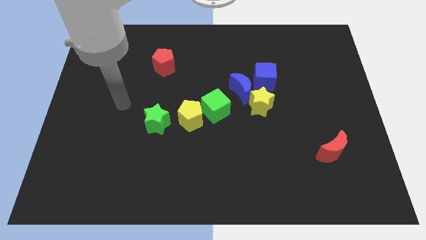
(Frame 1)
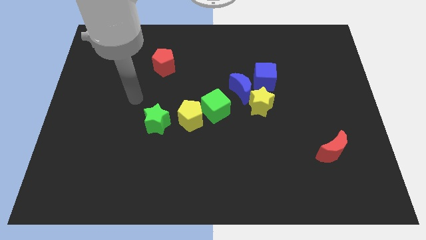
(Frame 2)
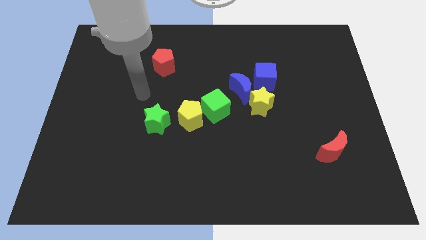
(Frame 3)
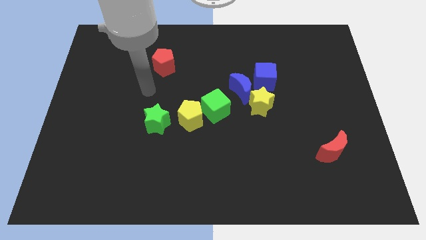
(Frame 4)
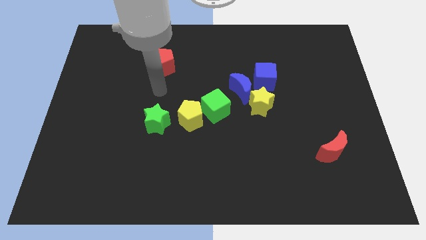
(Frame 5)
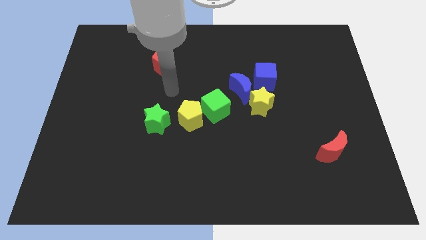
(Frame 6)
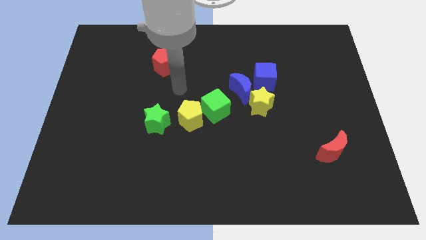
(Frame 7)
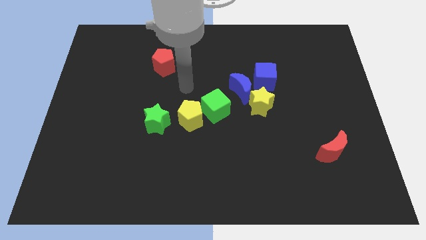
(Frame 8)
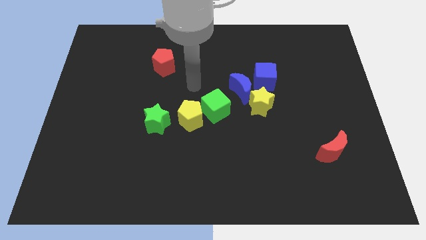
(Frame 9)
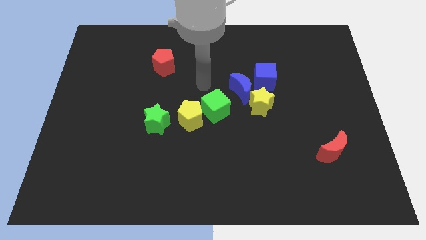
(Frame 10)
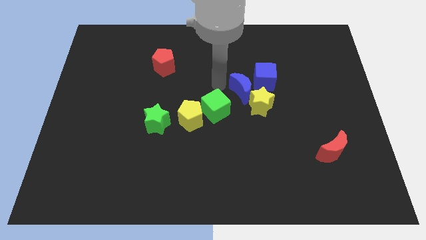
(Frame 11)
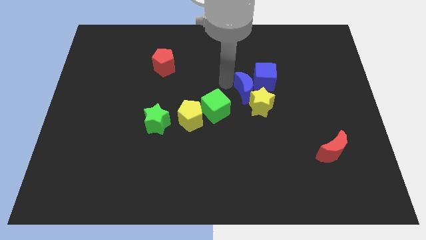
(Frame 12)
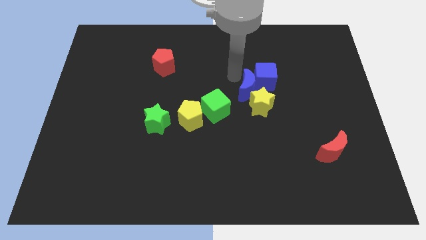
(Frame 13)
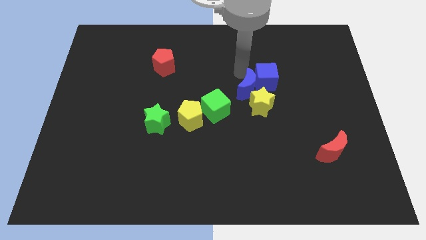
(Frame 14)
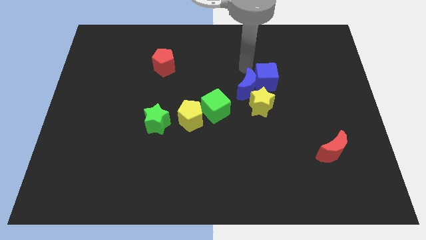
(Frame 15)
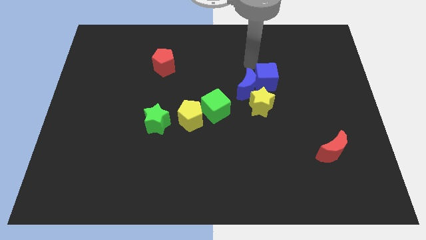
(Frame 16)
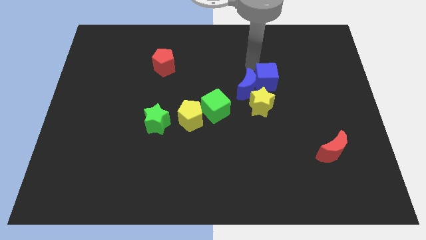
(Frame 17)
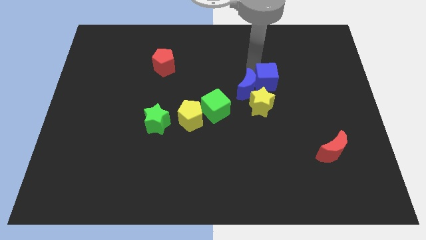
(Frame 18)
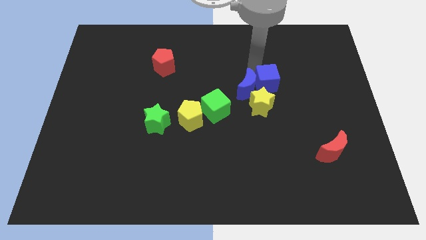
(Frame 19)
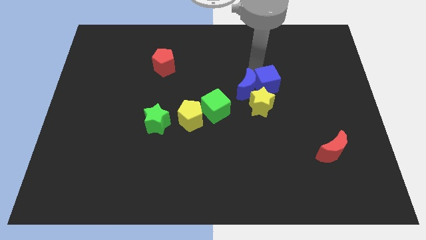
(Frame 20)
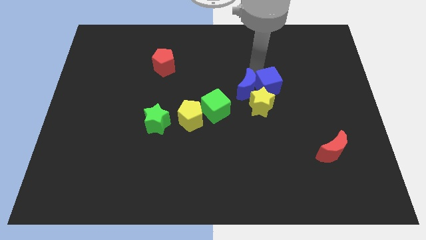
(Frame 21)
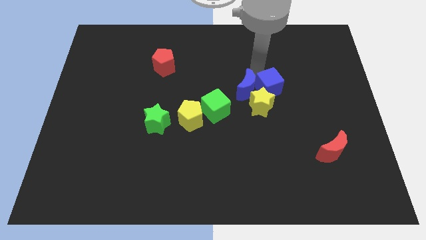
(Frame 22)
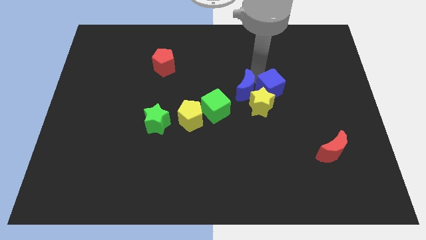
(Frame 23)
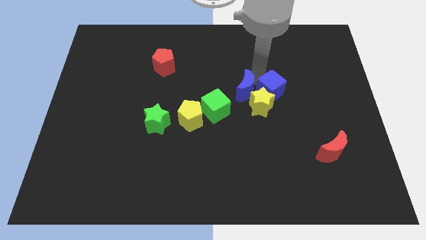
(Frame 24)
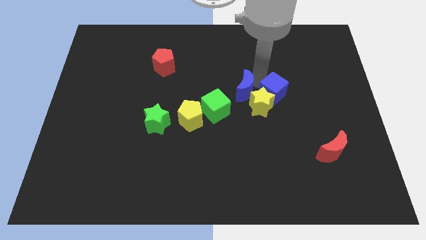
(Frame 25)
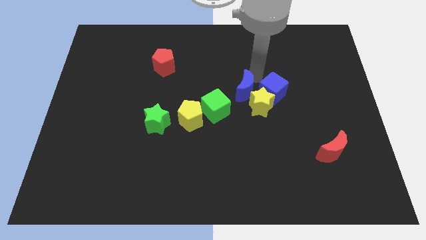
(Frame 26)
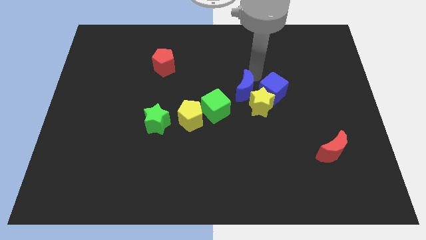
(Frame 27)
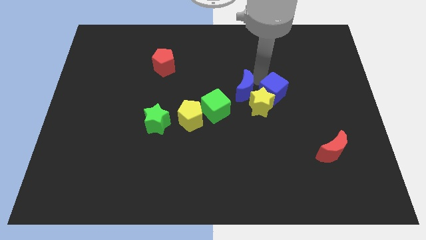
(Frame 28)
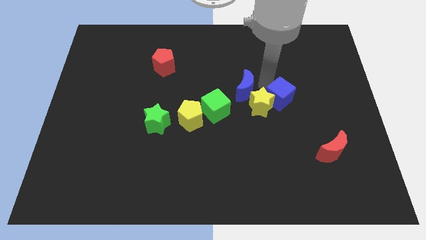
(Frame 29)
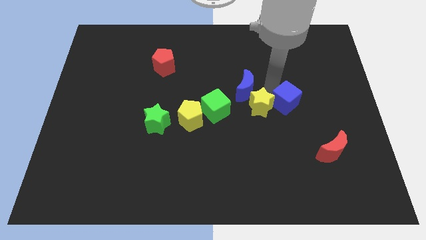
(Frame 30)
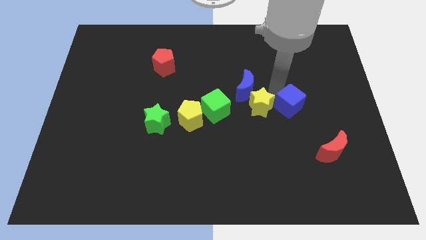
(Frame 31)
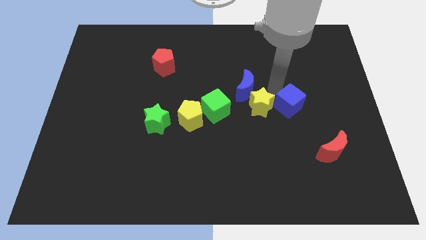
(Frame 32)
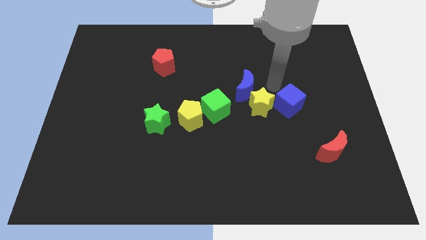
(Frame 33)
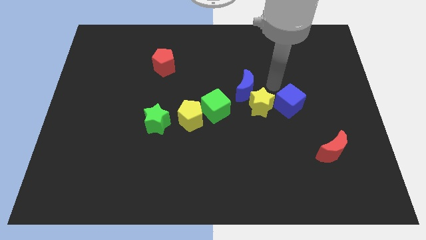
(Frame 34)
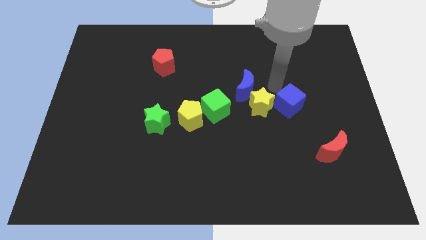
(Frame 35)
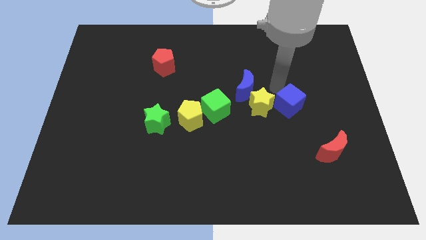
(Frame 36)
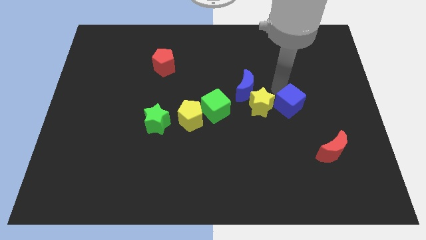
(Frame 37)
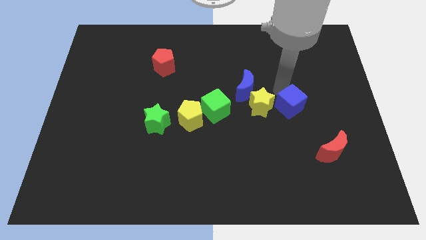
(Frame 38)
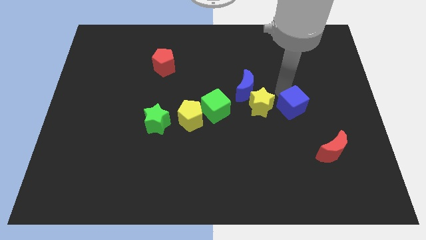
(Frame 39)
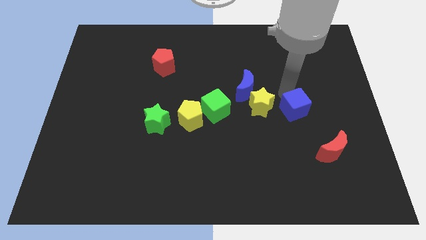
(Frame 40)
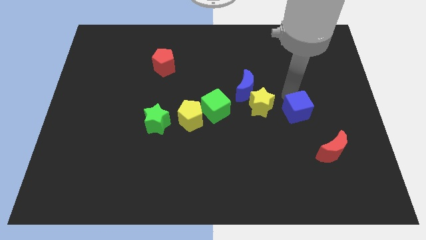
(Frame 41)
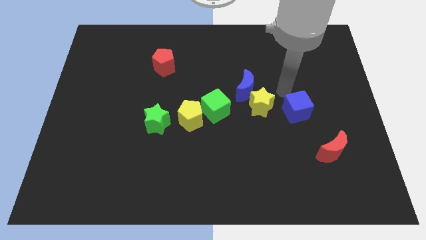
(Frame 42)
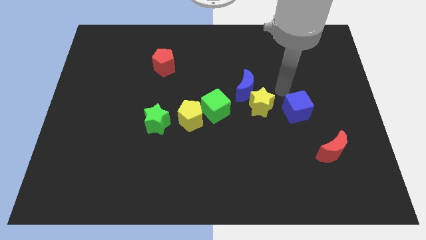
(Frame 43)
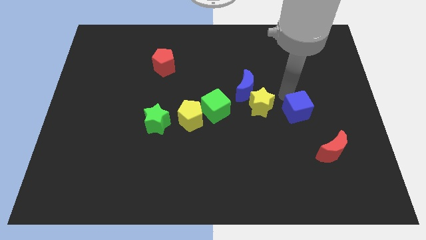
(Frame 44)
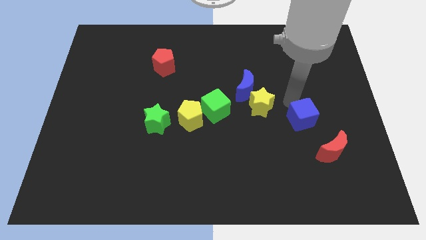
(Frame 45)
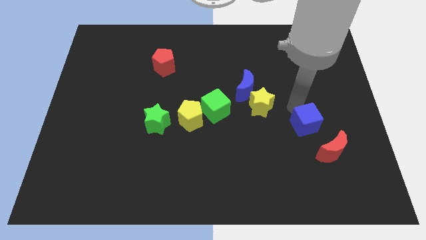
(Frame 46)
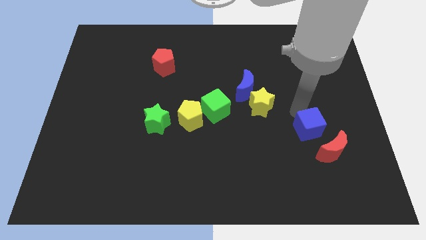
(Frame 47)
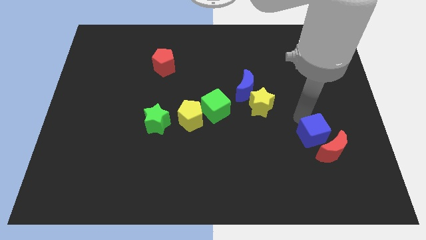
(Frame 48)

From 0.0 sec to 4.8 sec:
move the blue cube close to the red moon

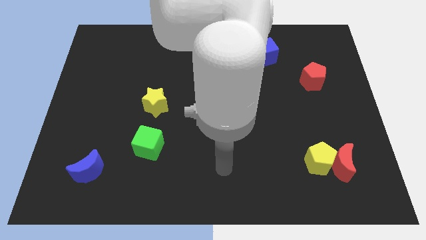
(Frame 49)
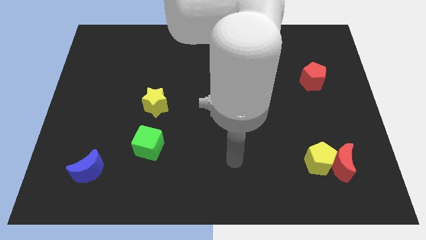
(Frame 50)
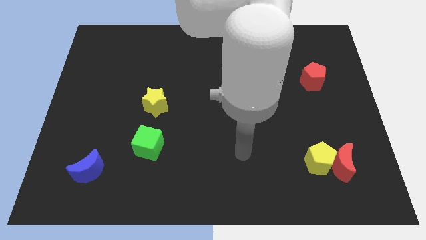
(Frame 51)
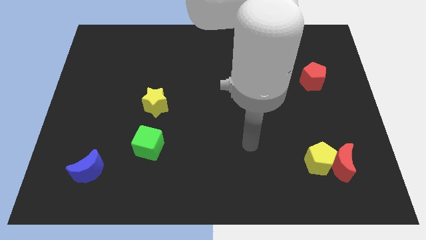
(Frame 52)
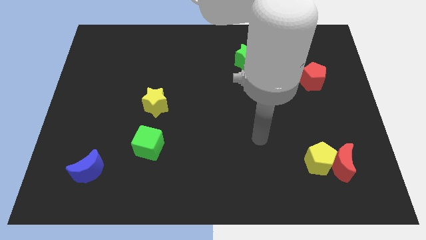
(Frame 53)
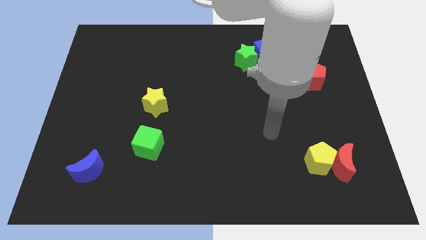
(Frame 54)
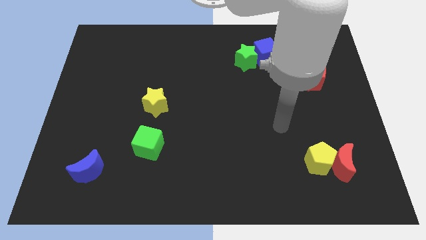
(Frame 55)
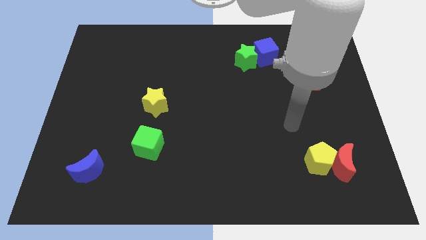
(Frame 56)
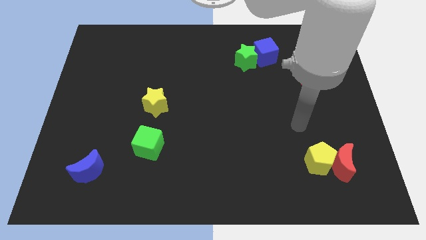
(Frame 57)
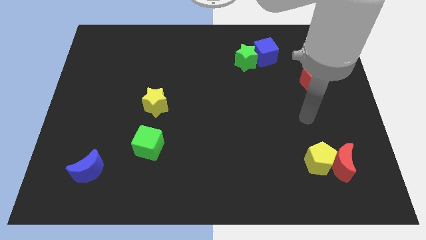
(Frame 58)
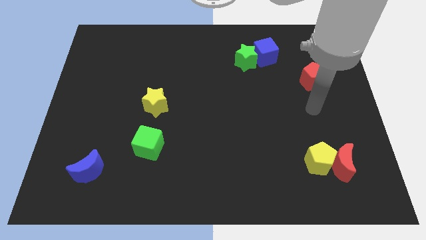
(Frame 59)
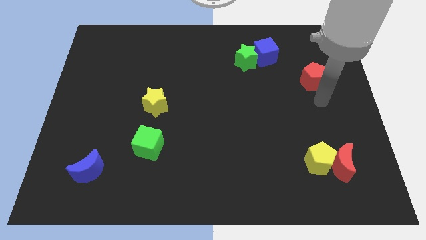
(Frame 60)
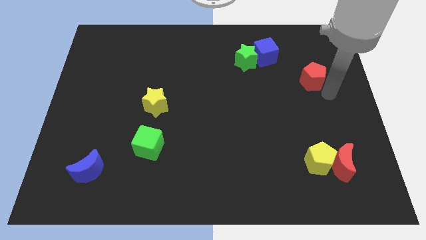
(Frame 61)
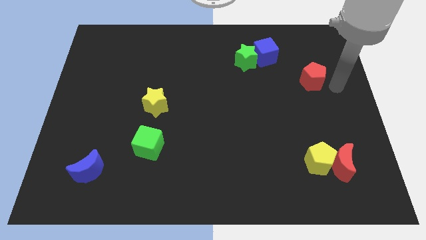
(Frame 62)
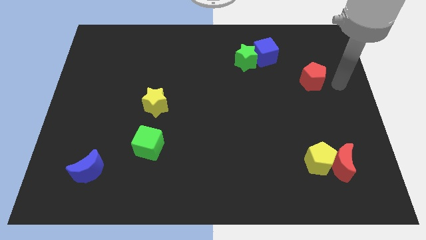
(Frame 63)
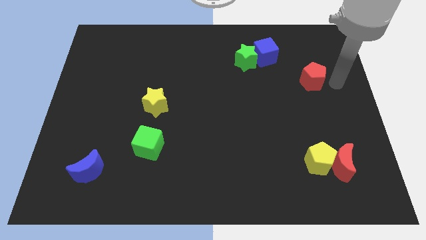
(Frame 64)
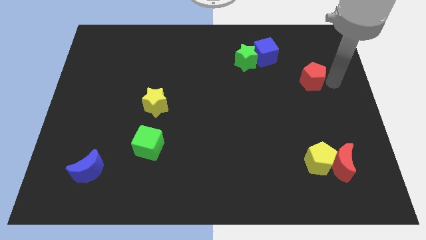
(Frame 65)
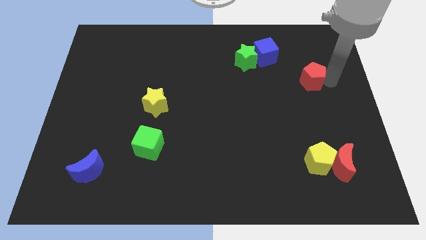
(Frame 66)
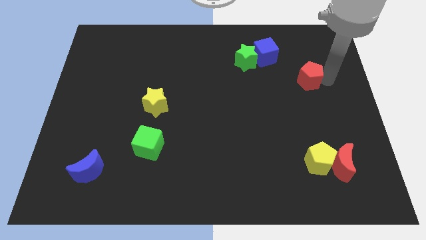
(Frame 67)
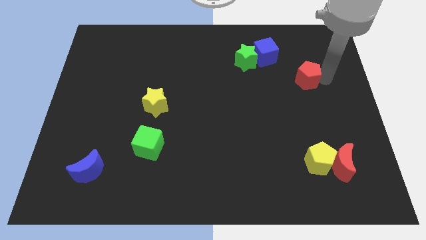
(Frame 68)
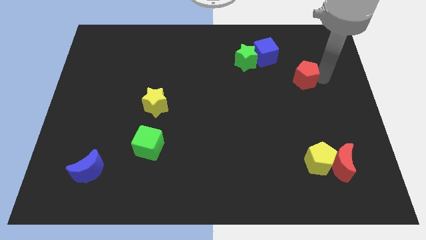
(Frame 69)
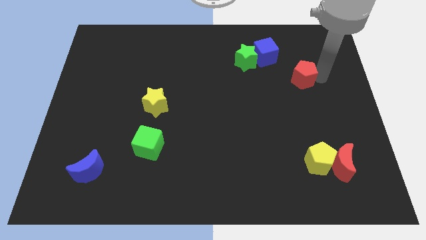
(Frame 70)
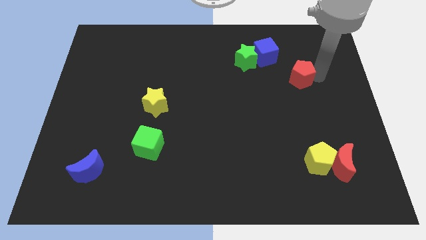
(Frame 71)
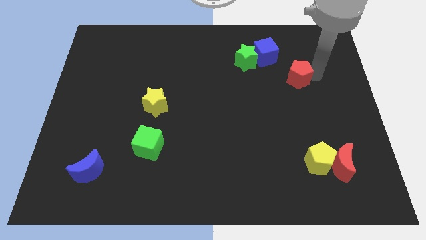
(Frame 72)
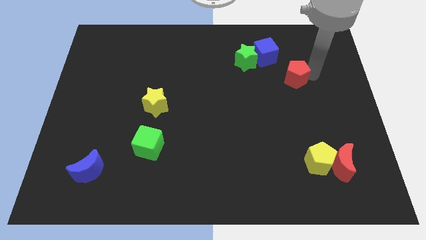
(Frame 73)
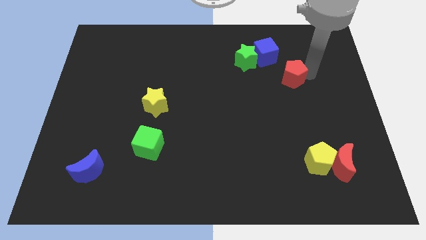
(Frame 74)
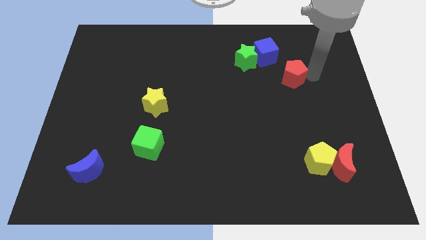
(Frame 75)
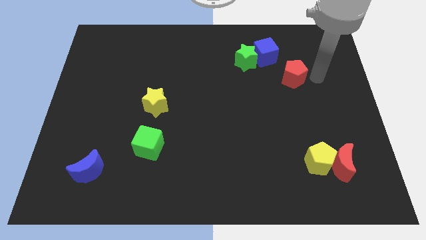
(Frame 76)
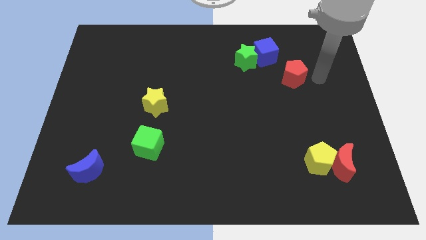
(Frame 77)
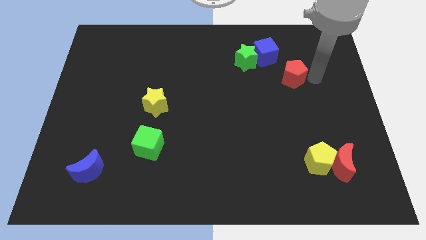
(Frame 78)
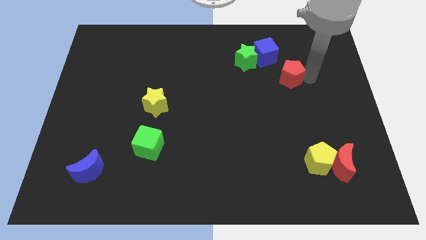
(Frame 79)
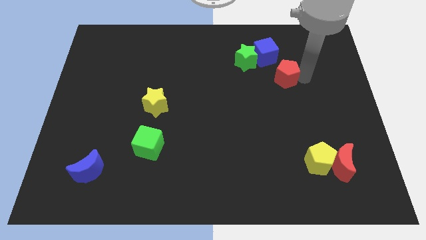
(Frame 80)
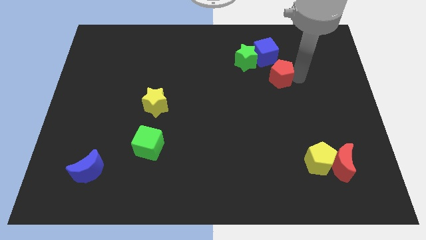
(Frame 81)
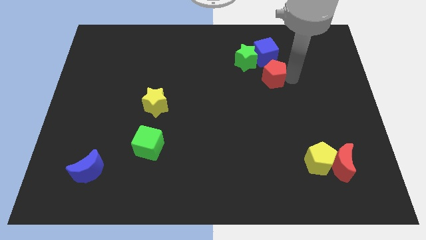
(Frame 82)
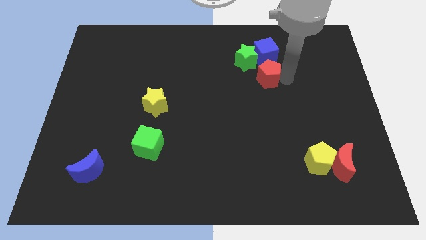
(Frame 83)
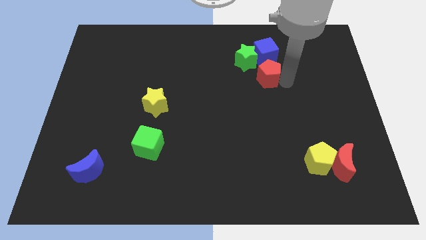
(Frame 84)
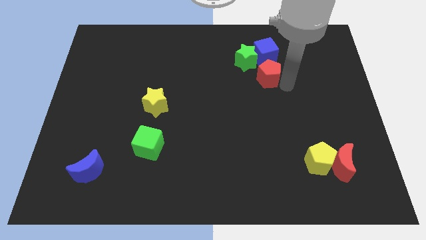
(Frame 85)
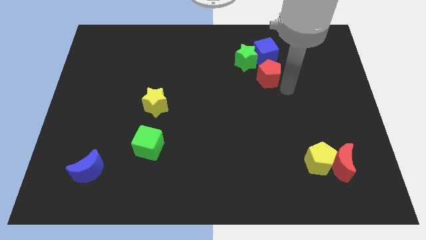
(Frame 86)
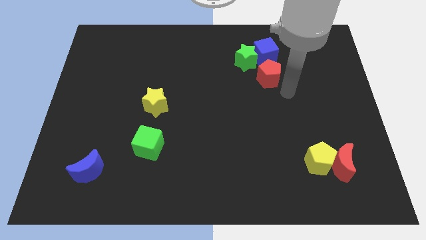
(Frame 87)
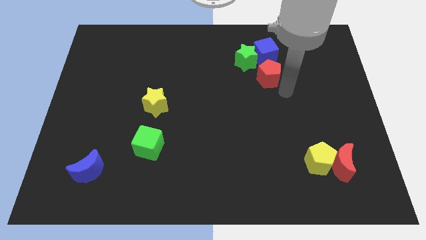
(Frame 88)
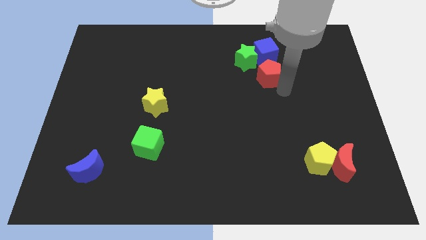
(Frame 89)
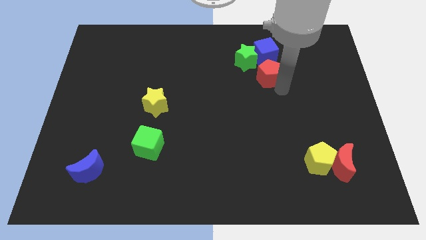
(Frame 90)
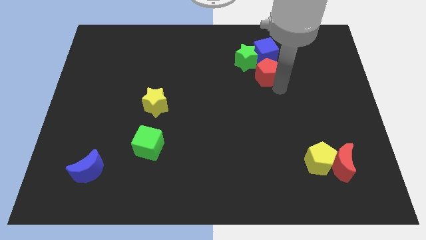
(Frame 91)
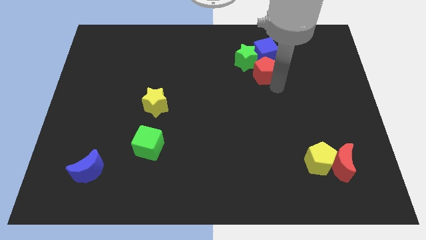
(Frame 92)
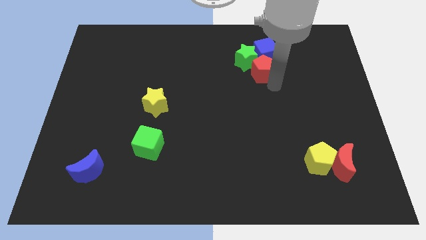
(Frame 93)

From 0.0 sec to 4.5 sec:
put the red pentagon next to the green star
